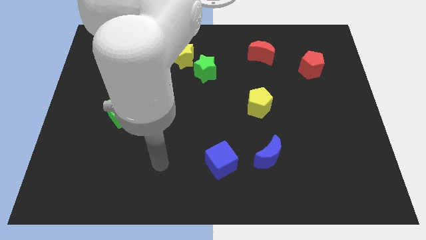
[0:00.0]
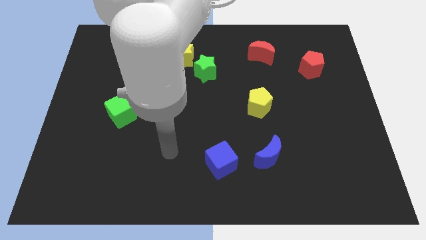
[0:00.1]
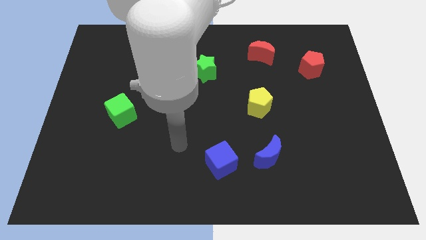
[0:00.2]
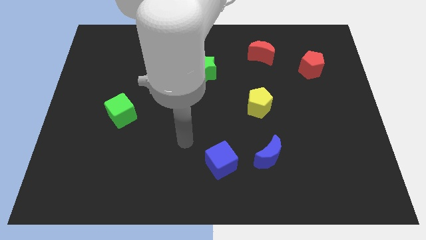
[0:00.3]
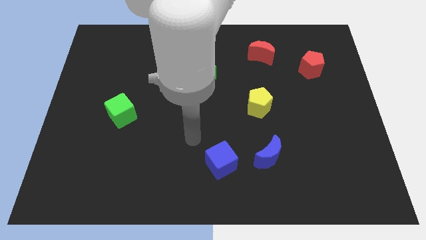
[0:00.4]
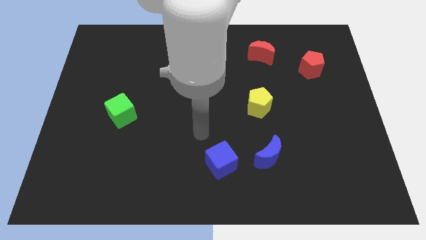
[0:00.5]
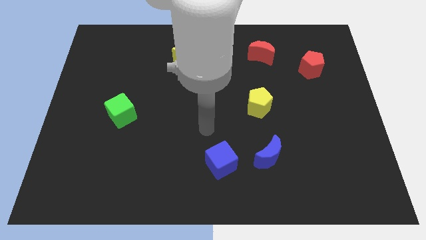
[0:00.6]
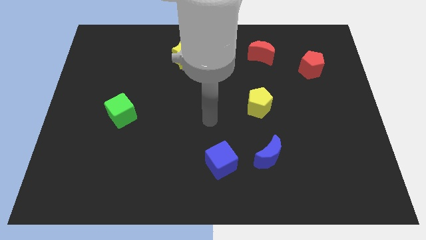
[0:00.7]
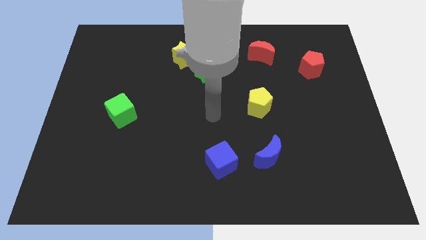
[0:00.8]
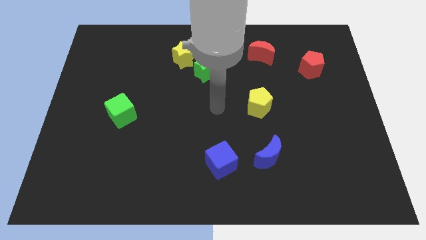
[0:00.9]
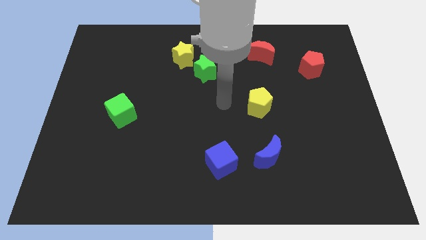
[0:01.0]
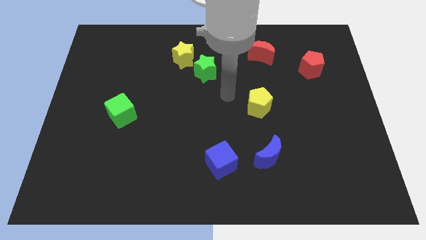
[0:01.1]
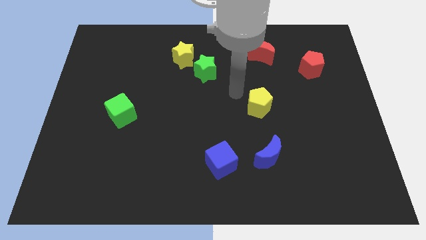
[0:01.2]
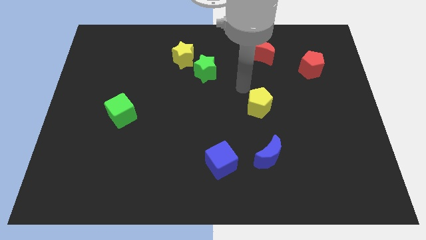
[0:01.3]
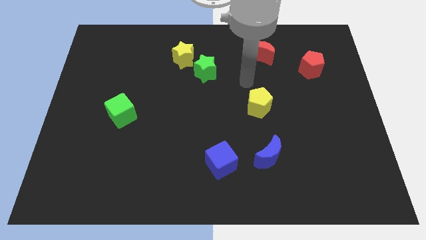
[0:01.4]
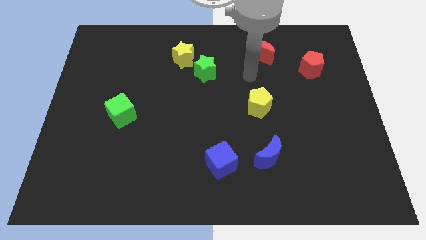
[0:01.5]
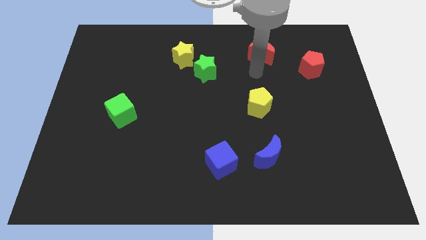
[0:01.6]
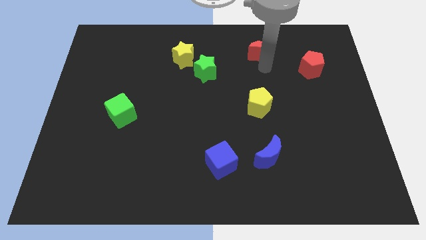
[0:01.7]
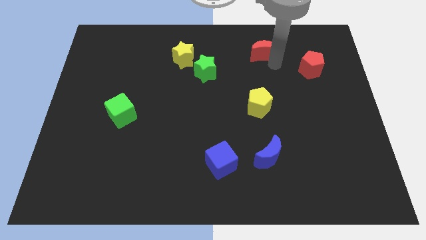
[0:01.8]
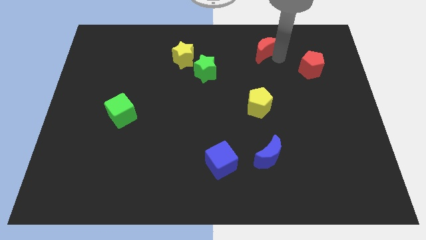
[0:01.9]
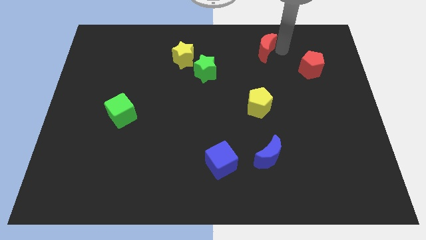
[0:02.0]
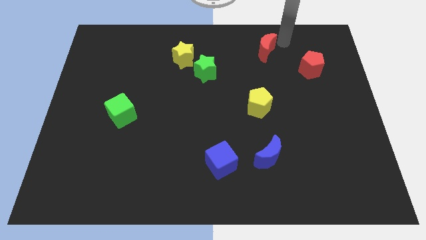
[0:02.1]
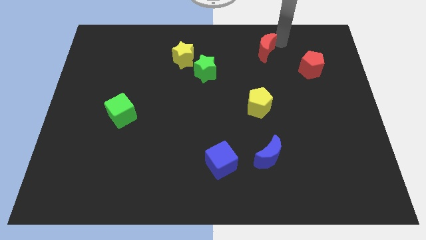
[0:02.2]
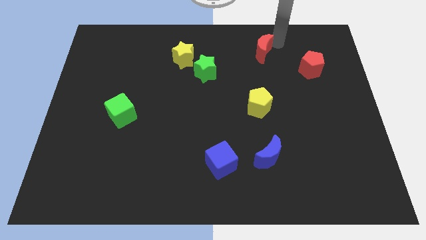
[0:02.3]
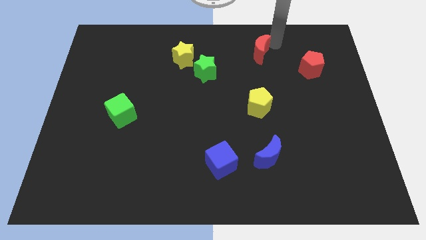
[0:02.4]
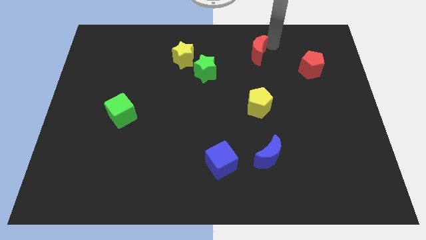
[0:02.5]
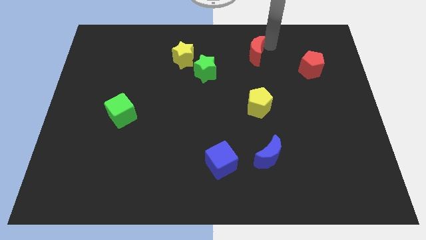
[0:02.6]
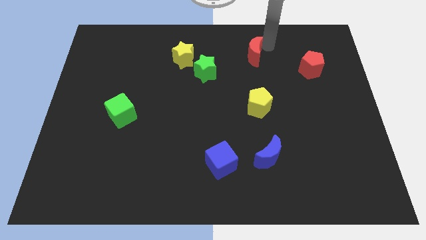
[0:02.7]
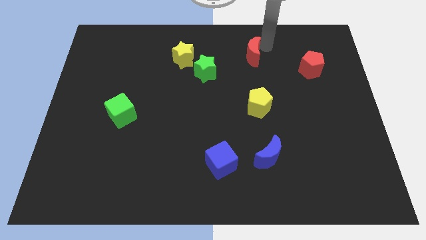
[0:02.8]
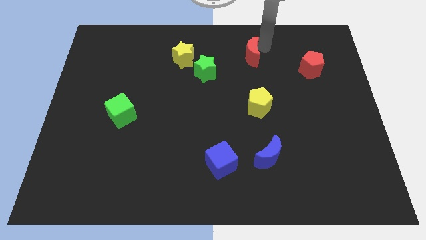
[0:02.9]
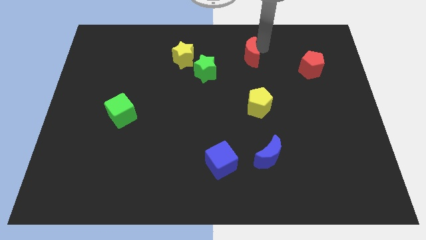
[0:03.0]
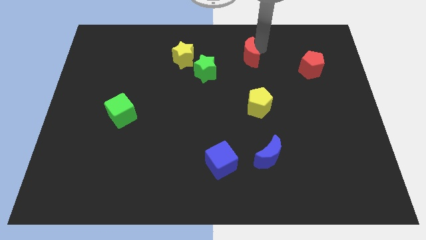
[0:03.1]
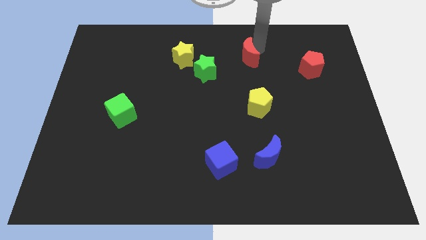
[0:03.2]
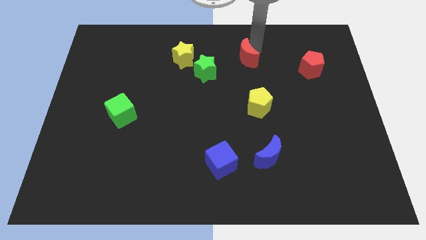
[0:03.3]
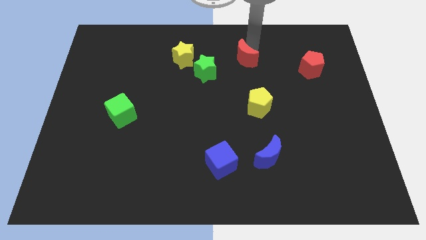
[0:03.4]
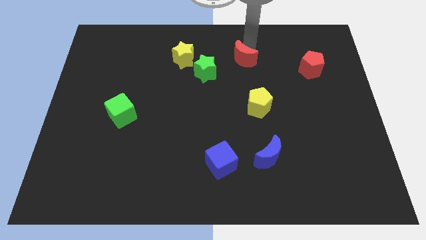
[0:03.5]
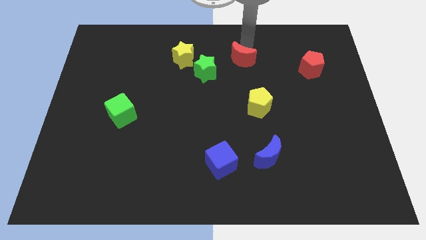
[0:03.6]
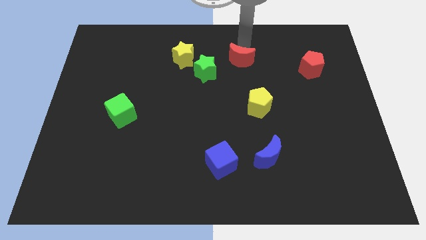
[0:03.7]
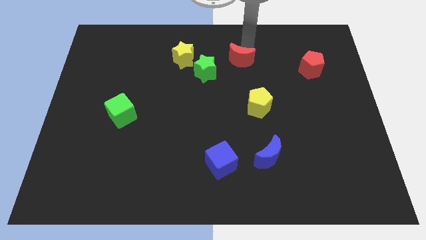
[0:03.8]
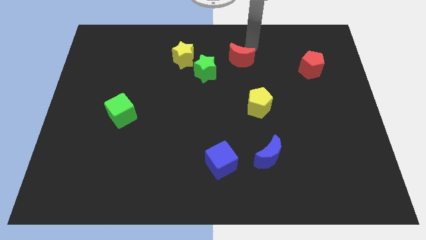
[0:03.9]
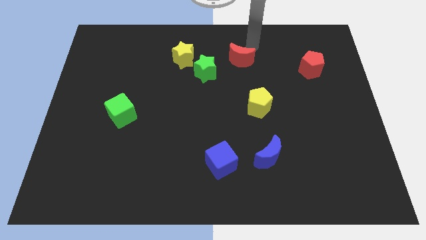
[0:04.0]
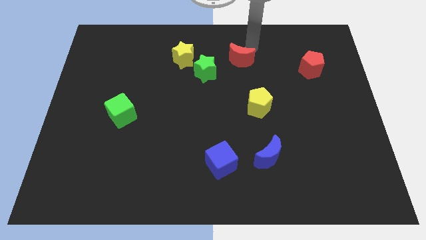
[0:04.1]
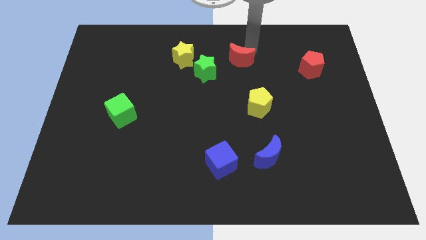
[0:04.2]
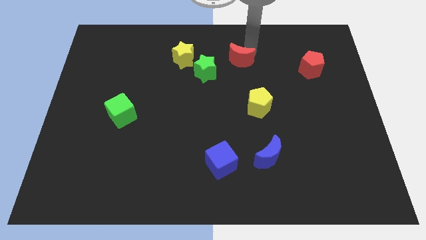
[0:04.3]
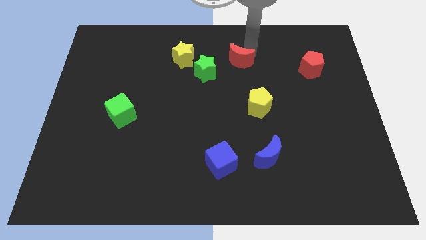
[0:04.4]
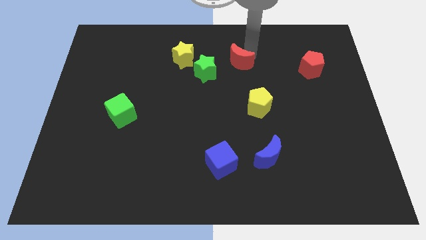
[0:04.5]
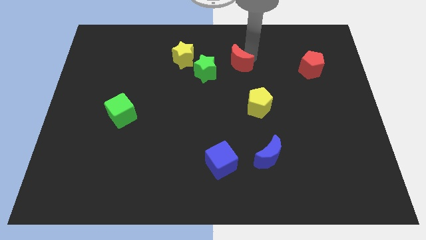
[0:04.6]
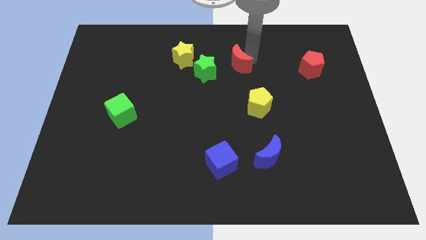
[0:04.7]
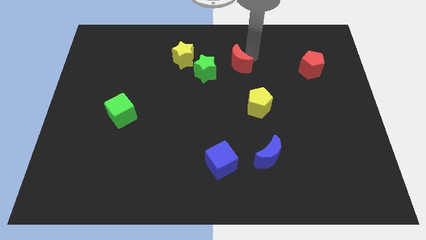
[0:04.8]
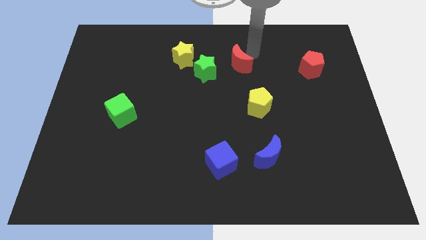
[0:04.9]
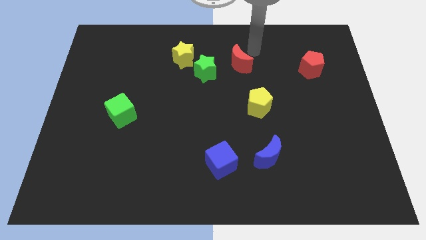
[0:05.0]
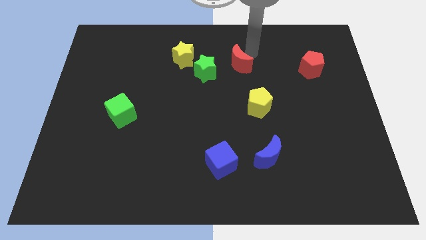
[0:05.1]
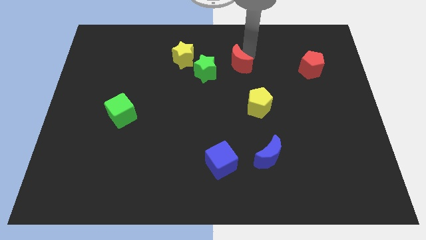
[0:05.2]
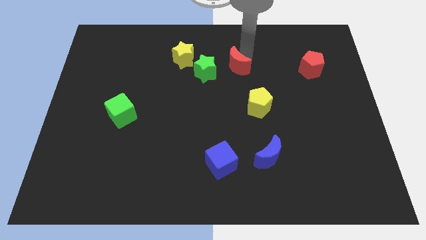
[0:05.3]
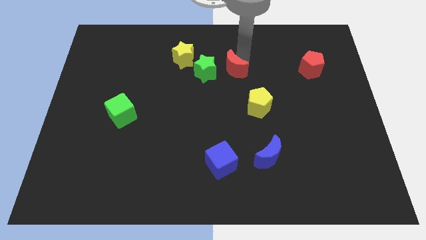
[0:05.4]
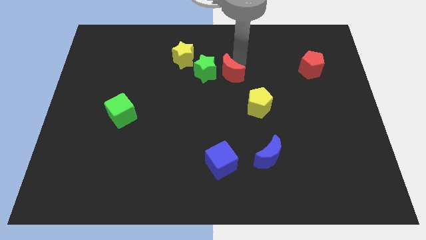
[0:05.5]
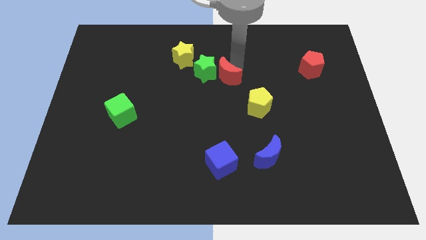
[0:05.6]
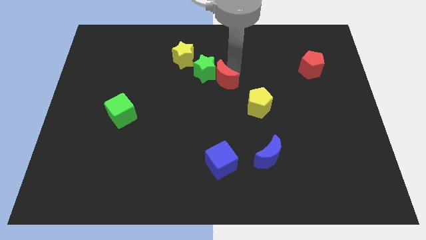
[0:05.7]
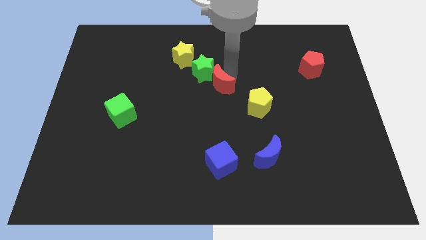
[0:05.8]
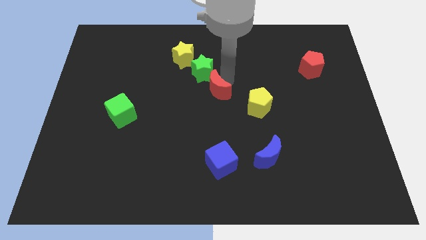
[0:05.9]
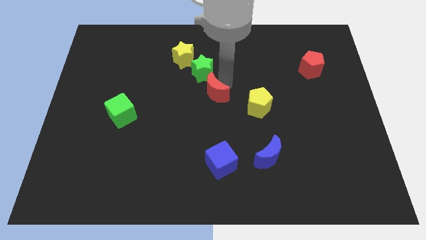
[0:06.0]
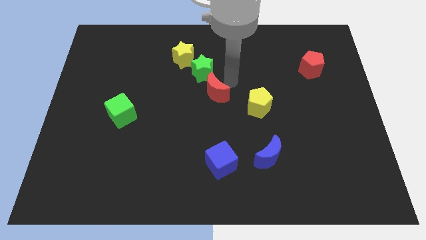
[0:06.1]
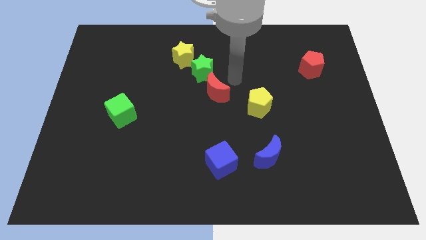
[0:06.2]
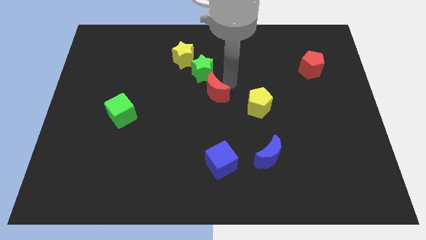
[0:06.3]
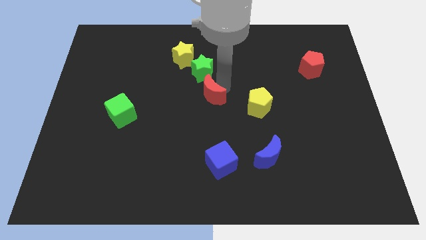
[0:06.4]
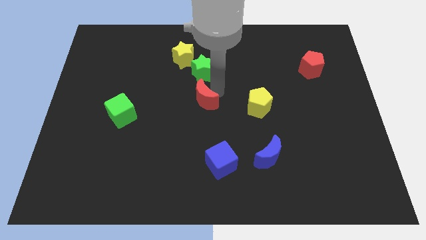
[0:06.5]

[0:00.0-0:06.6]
push the red moon diagonally down and to the left

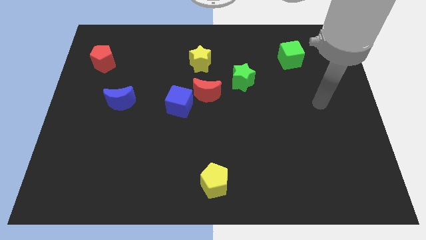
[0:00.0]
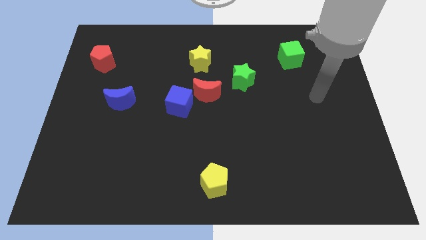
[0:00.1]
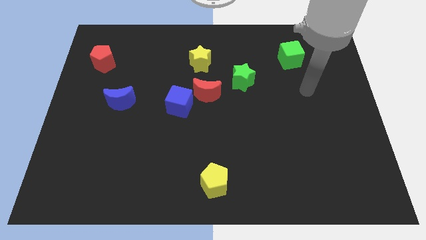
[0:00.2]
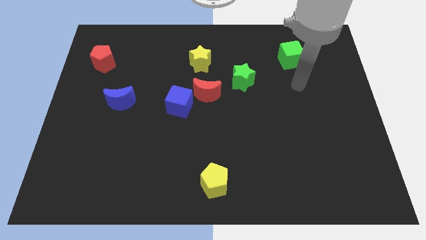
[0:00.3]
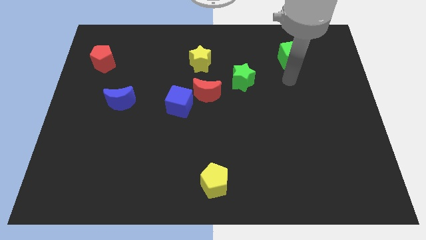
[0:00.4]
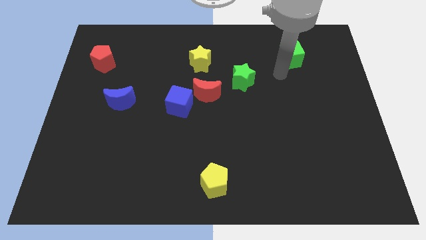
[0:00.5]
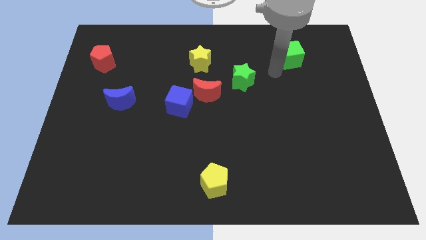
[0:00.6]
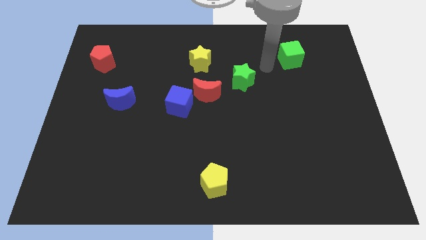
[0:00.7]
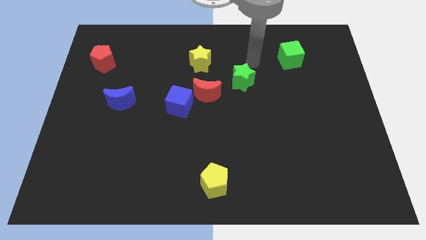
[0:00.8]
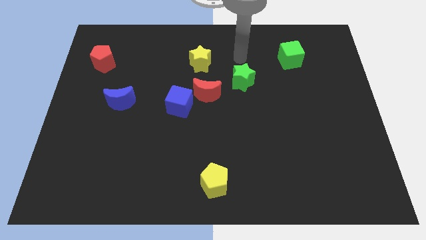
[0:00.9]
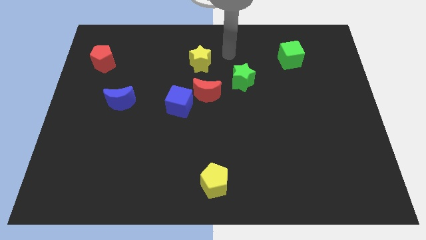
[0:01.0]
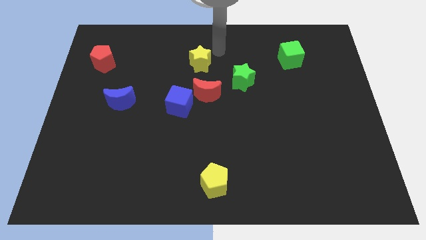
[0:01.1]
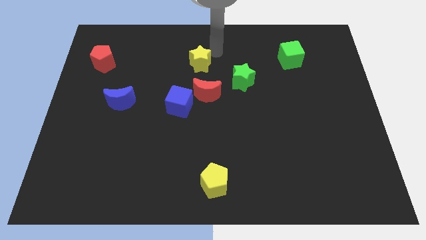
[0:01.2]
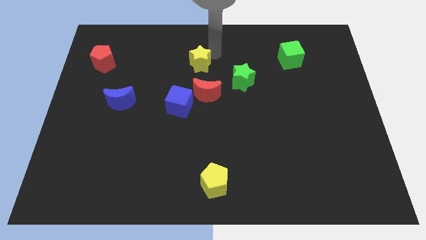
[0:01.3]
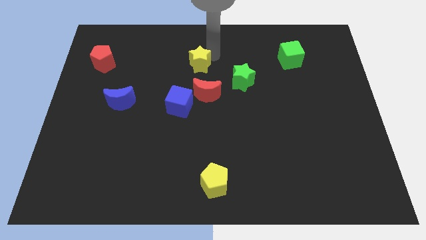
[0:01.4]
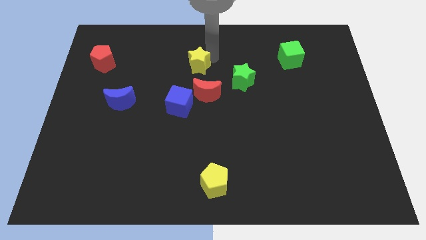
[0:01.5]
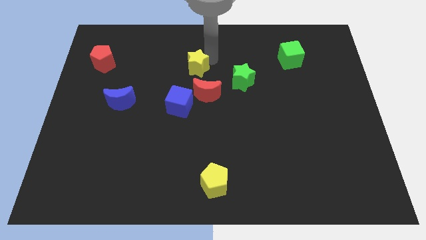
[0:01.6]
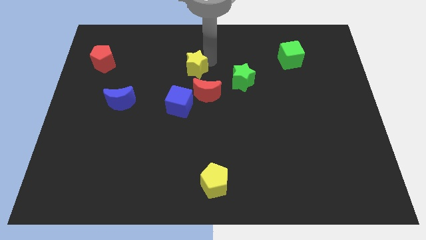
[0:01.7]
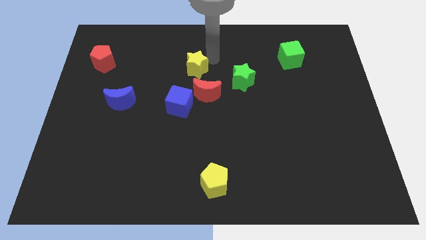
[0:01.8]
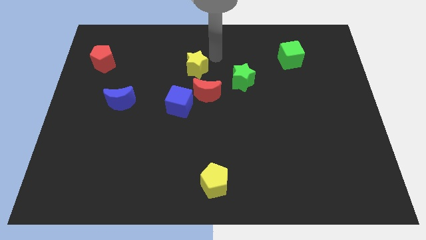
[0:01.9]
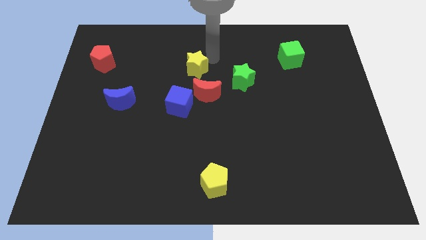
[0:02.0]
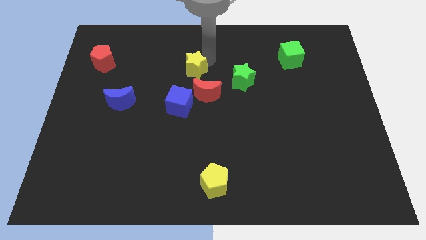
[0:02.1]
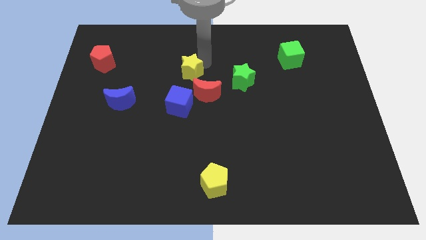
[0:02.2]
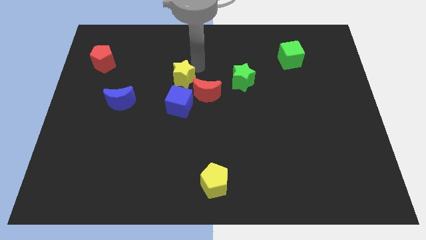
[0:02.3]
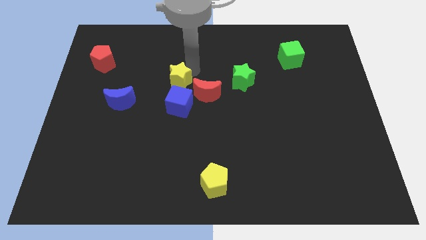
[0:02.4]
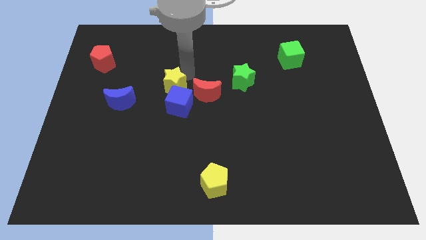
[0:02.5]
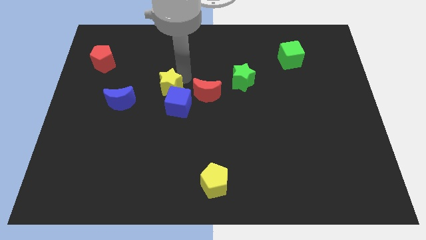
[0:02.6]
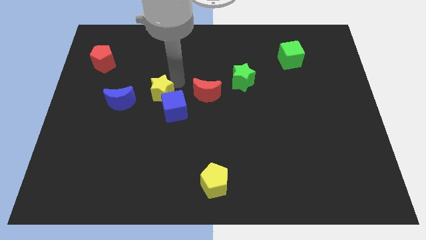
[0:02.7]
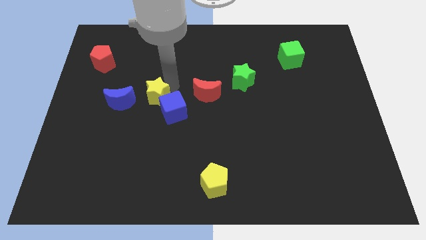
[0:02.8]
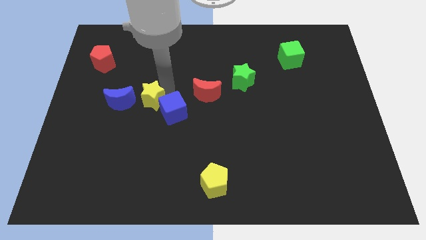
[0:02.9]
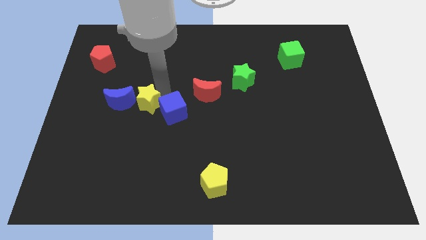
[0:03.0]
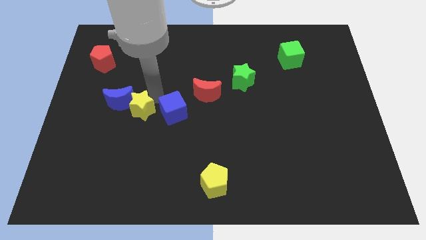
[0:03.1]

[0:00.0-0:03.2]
push the yellow star downwards and to the left
